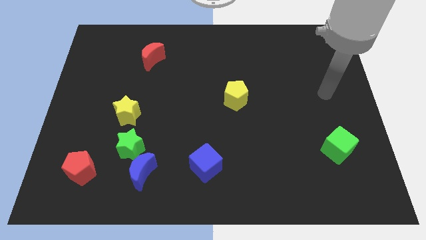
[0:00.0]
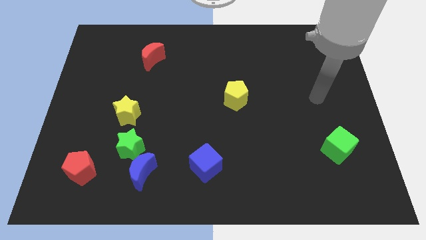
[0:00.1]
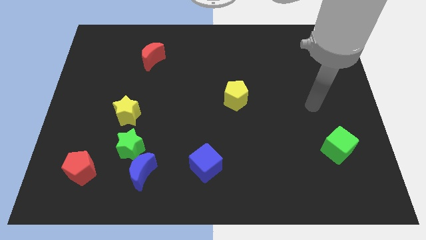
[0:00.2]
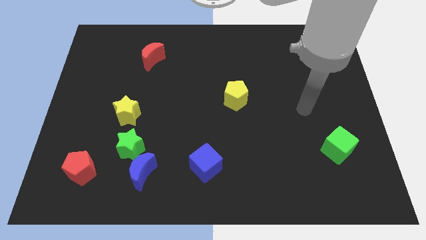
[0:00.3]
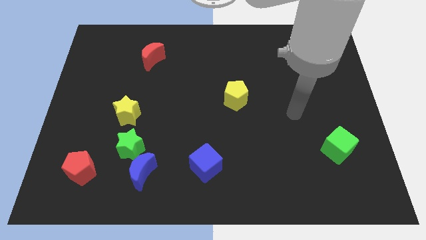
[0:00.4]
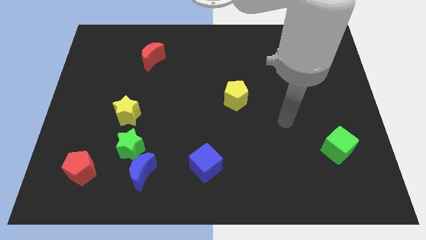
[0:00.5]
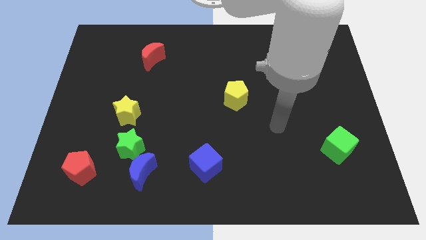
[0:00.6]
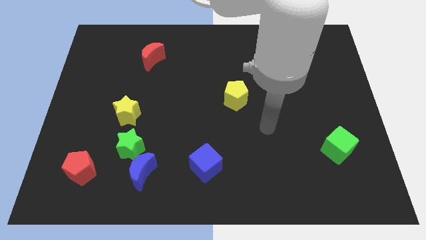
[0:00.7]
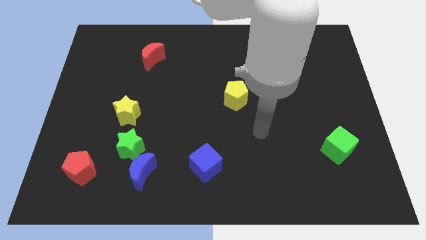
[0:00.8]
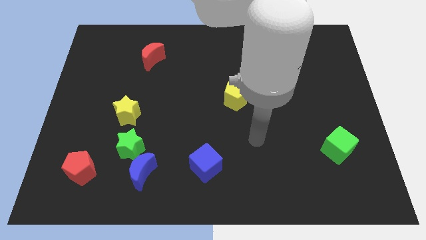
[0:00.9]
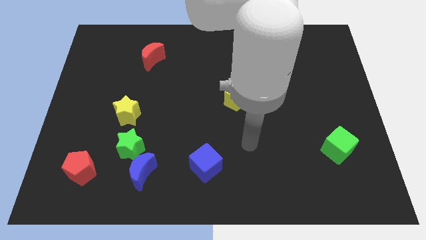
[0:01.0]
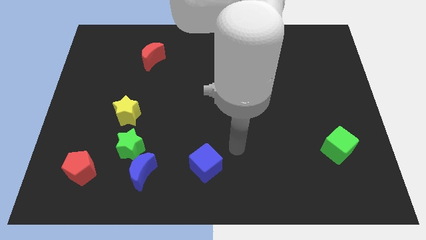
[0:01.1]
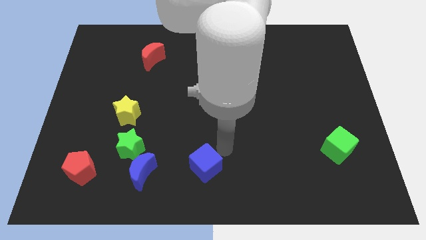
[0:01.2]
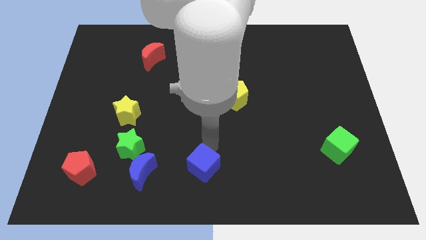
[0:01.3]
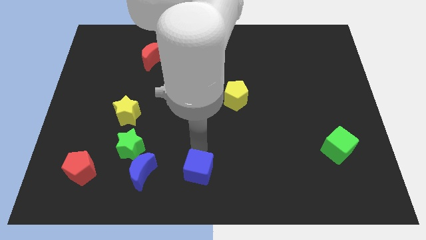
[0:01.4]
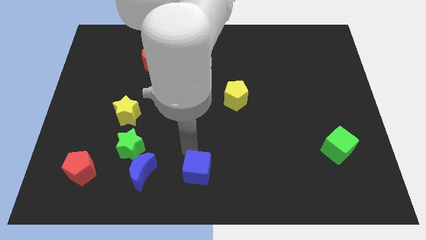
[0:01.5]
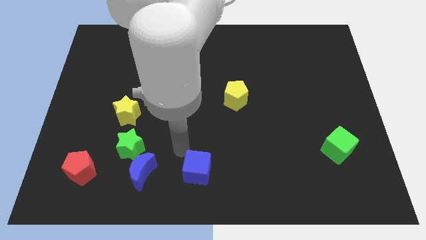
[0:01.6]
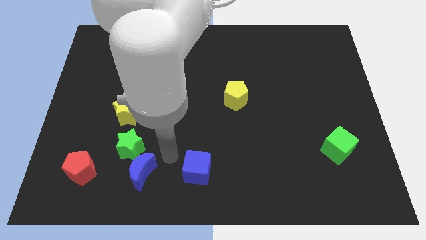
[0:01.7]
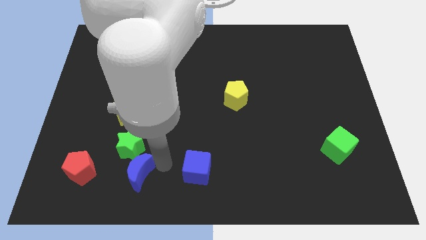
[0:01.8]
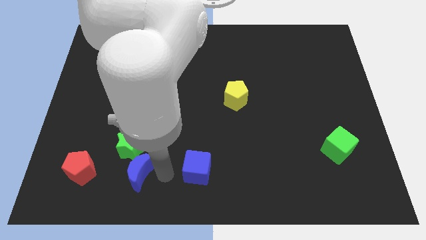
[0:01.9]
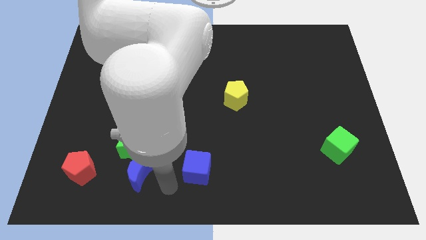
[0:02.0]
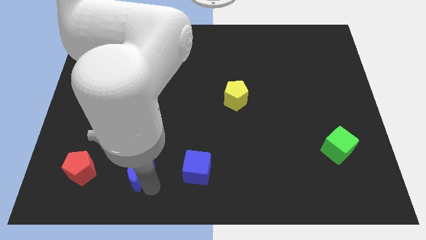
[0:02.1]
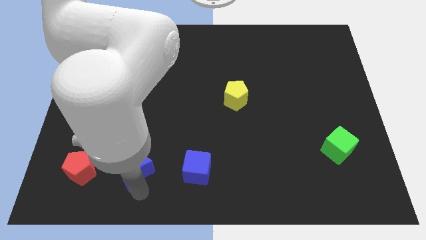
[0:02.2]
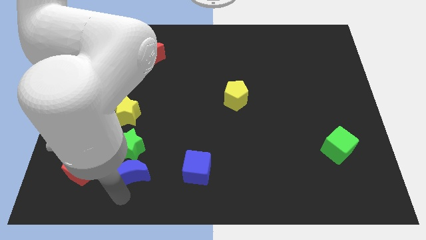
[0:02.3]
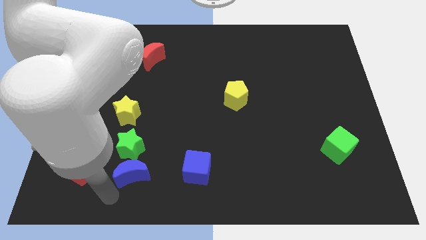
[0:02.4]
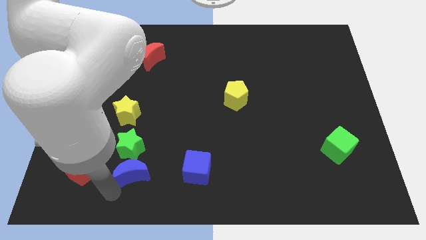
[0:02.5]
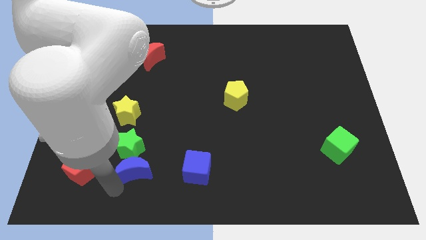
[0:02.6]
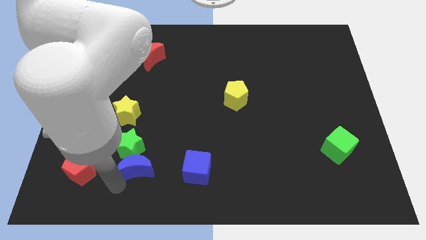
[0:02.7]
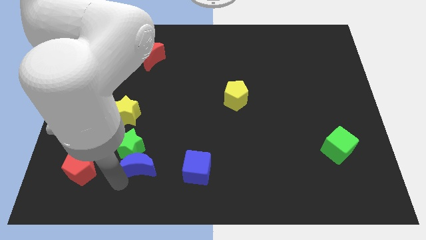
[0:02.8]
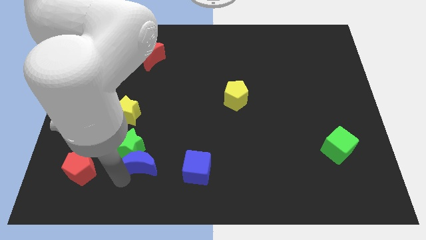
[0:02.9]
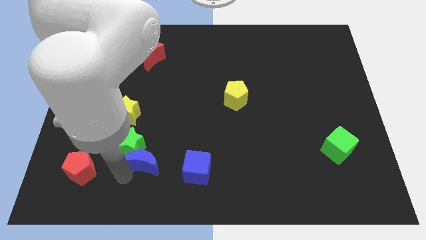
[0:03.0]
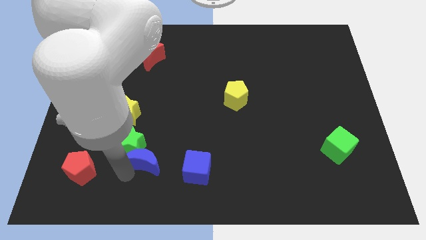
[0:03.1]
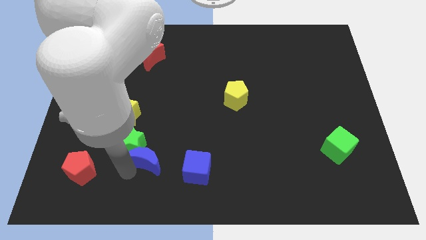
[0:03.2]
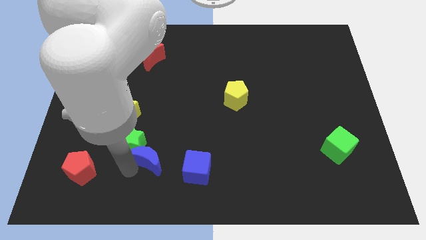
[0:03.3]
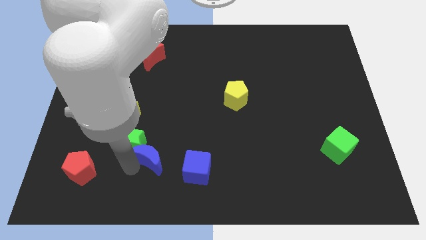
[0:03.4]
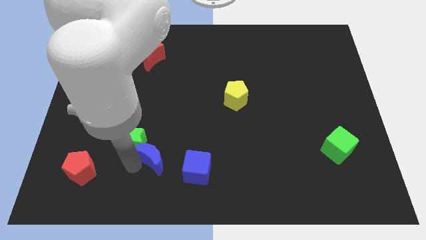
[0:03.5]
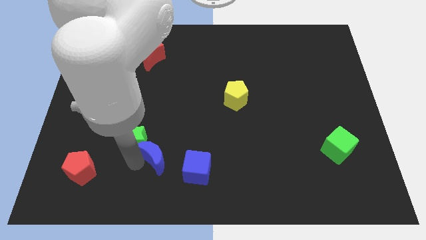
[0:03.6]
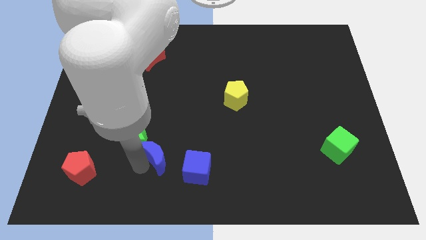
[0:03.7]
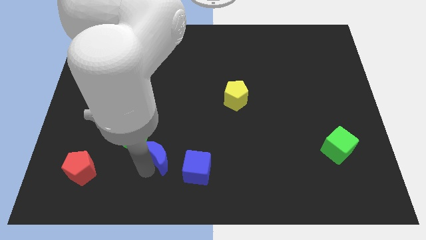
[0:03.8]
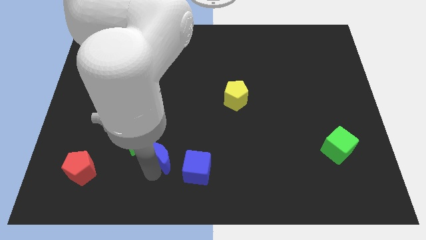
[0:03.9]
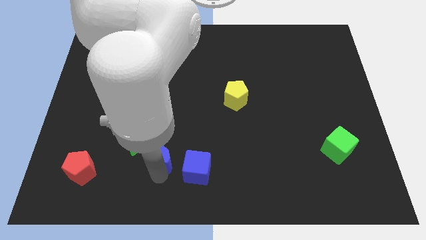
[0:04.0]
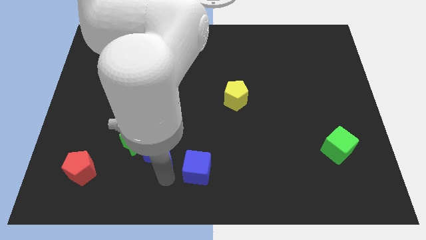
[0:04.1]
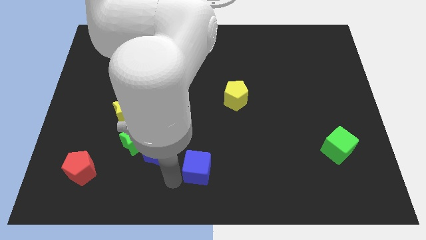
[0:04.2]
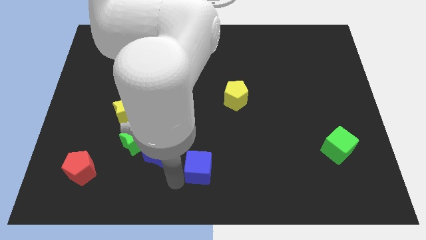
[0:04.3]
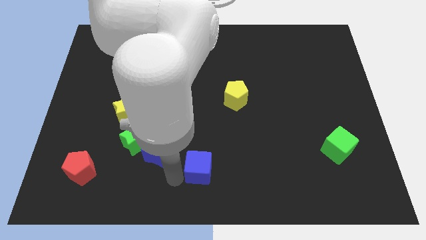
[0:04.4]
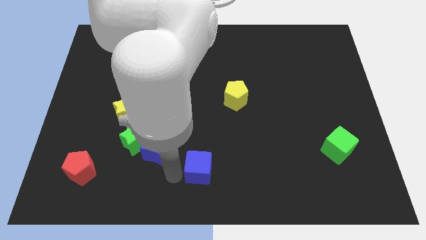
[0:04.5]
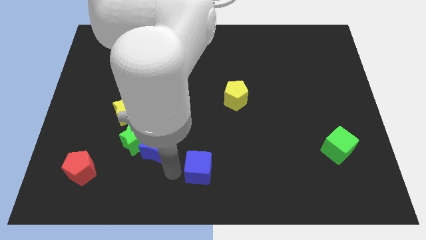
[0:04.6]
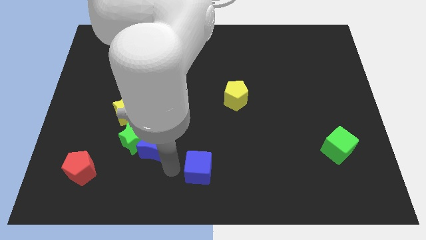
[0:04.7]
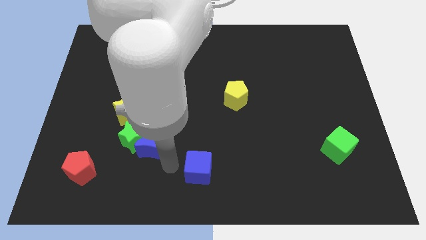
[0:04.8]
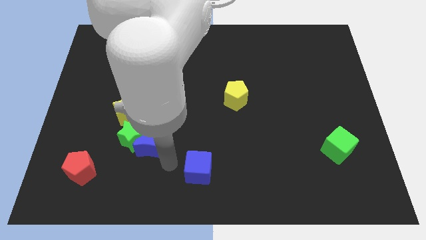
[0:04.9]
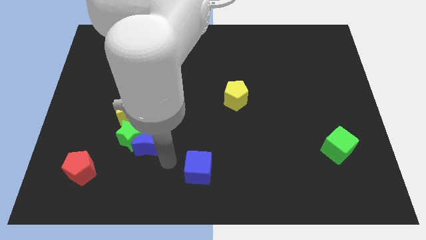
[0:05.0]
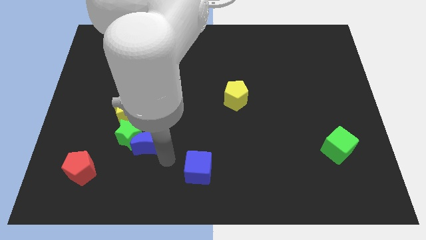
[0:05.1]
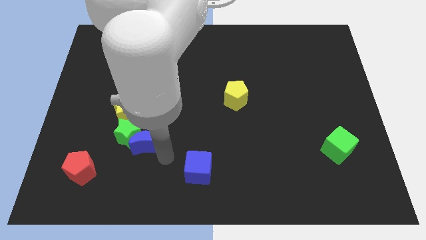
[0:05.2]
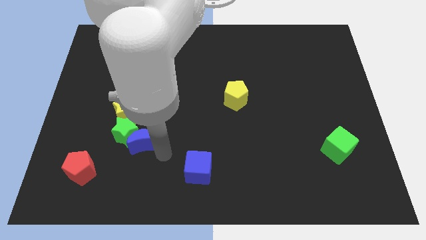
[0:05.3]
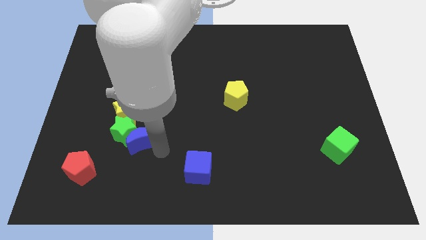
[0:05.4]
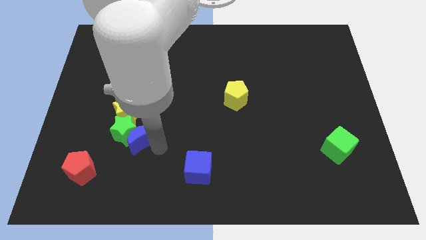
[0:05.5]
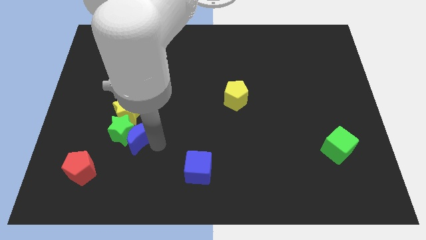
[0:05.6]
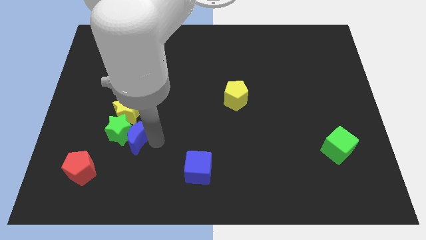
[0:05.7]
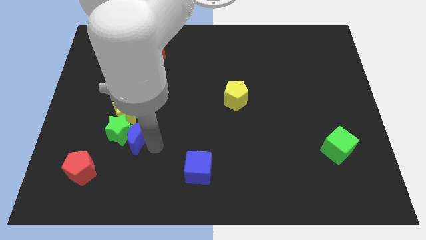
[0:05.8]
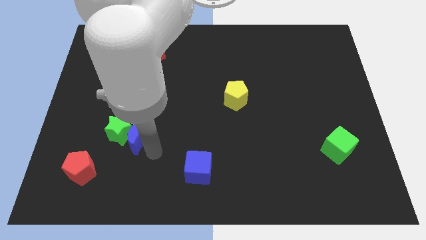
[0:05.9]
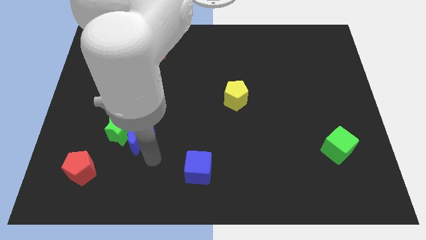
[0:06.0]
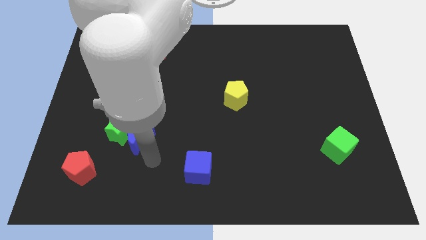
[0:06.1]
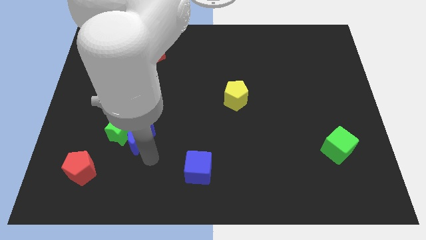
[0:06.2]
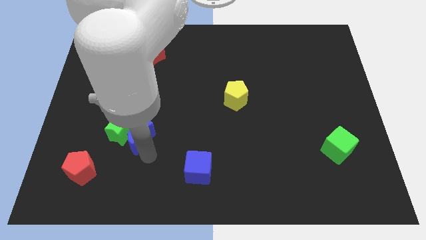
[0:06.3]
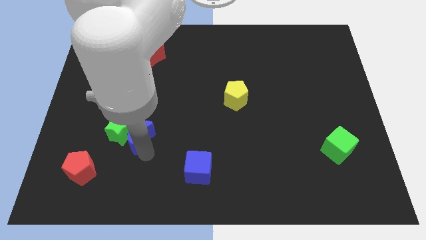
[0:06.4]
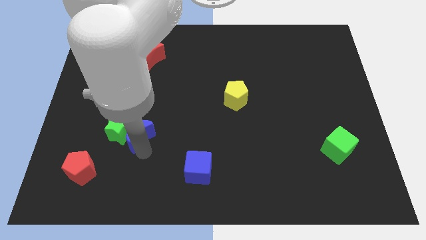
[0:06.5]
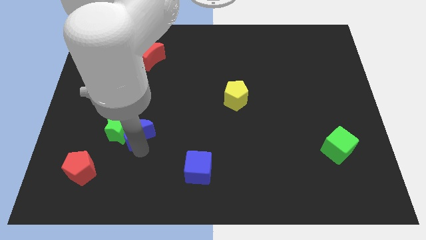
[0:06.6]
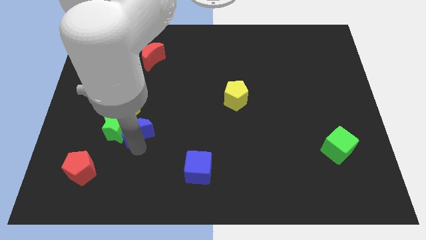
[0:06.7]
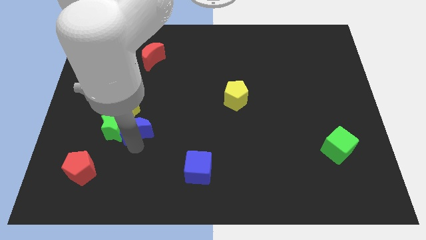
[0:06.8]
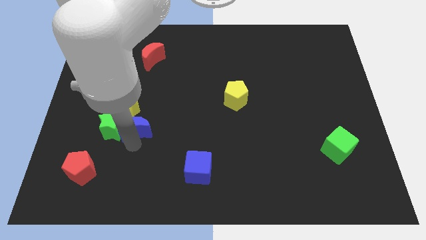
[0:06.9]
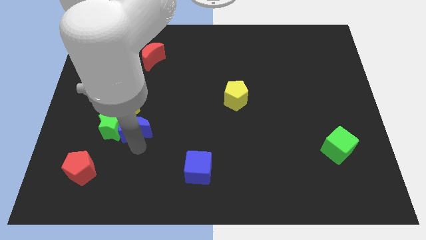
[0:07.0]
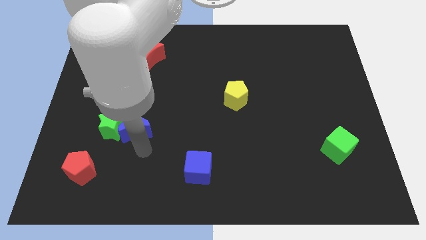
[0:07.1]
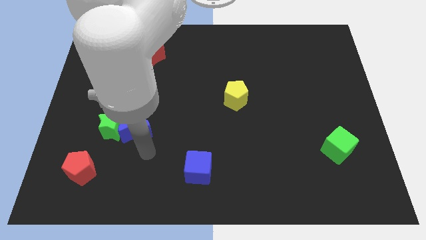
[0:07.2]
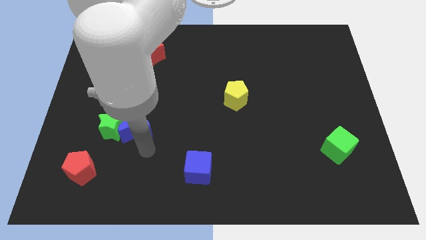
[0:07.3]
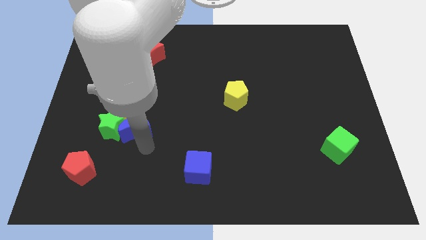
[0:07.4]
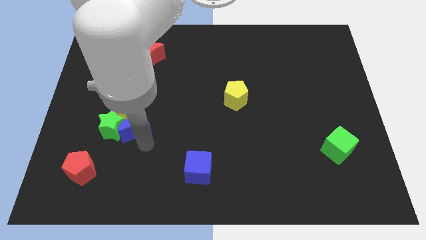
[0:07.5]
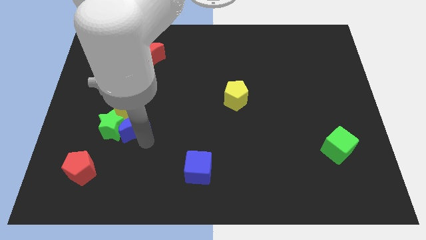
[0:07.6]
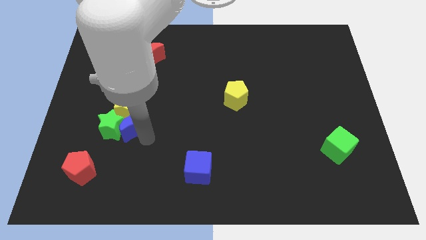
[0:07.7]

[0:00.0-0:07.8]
push the blue moon to the yellow star
